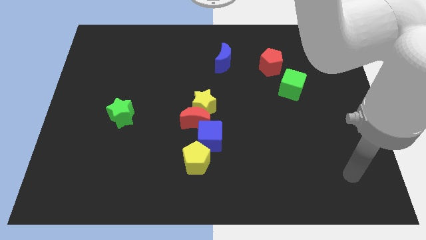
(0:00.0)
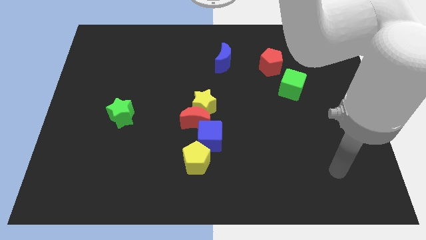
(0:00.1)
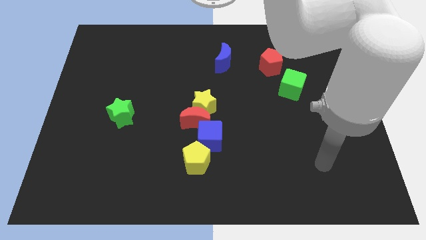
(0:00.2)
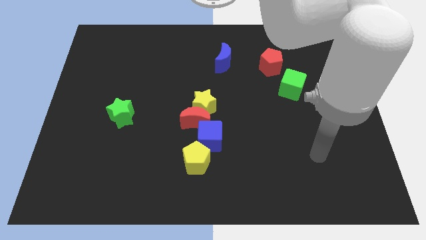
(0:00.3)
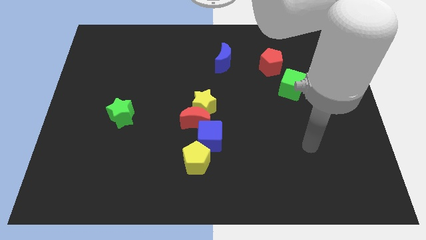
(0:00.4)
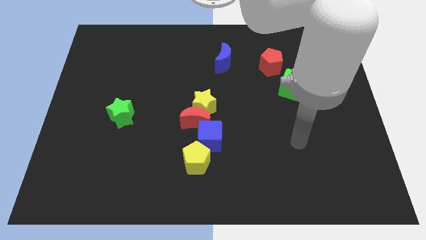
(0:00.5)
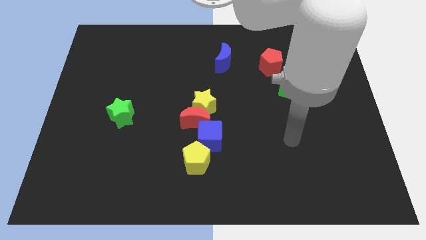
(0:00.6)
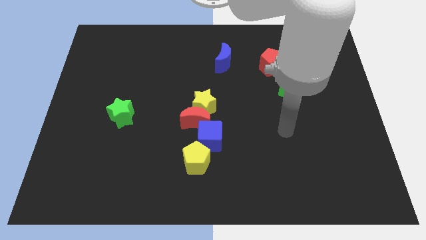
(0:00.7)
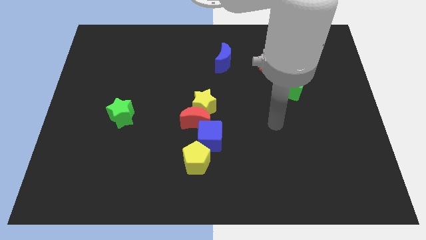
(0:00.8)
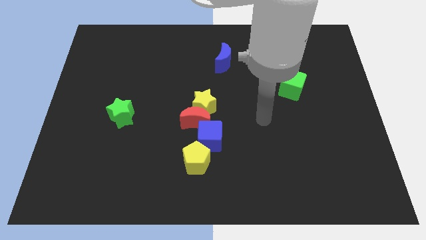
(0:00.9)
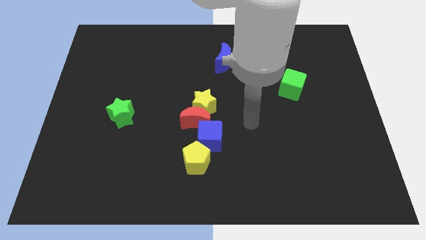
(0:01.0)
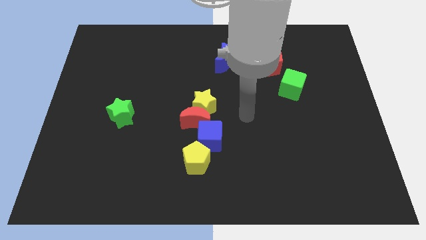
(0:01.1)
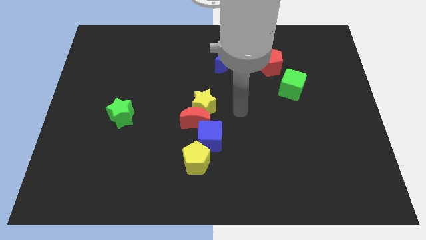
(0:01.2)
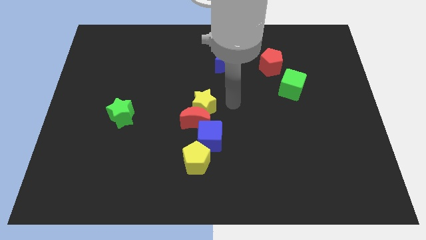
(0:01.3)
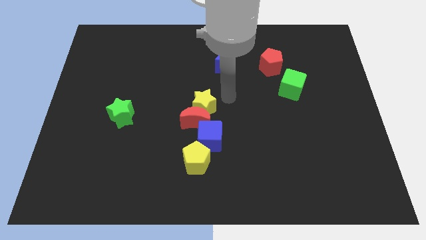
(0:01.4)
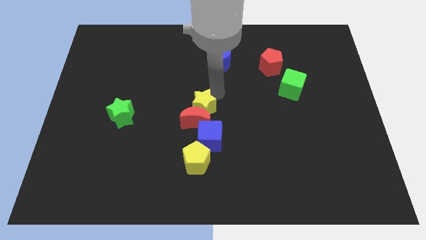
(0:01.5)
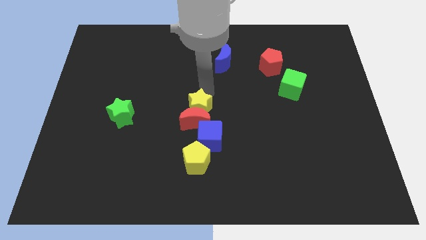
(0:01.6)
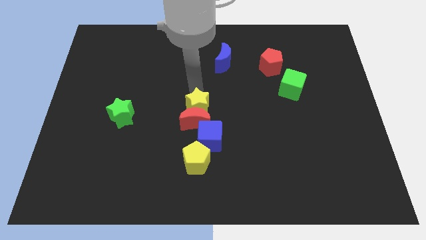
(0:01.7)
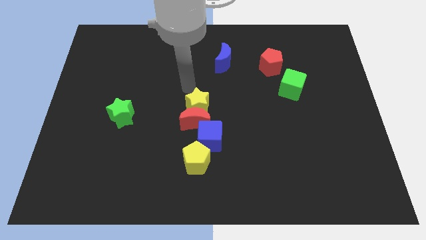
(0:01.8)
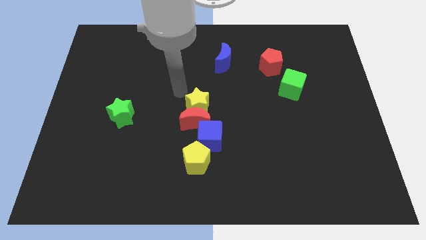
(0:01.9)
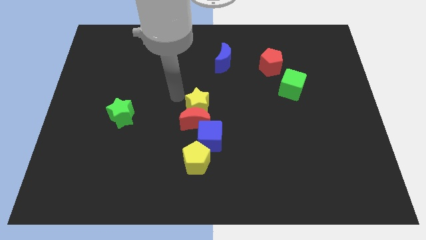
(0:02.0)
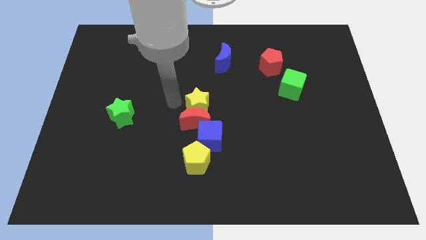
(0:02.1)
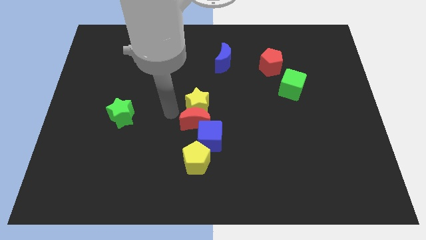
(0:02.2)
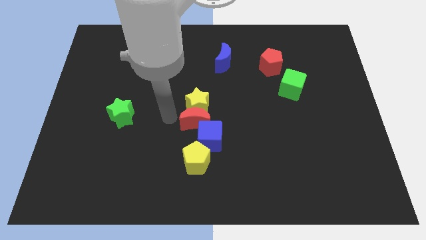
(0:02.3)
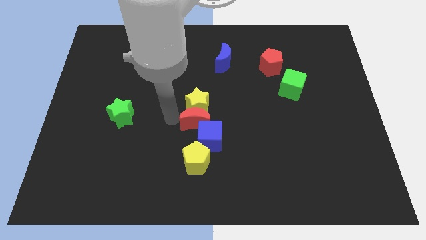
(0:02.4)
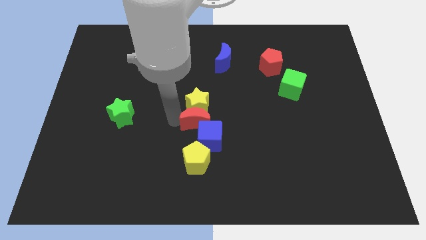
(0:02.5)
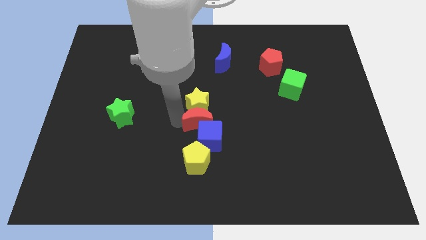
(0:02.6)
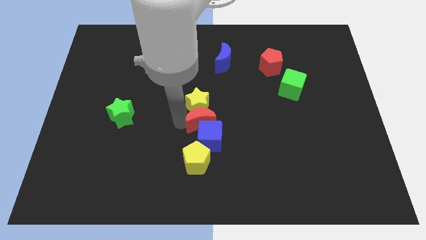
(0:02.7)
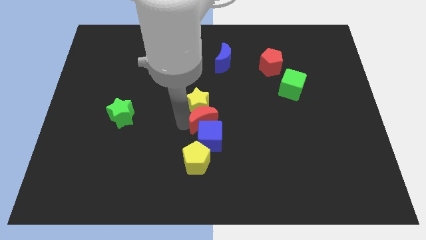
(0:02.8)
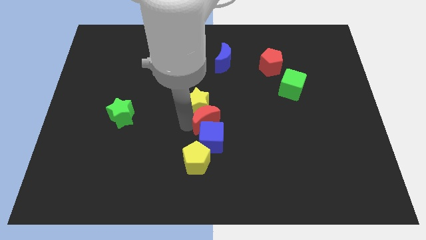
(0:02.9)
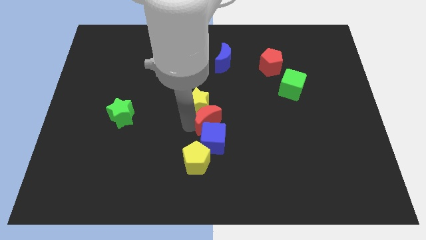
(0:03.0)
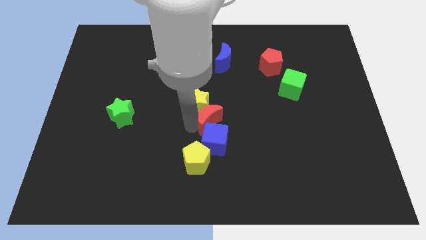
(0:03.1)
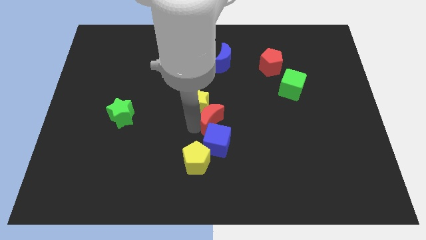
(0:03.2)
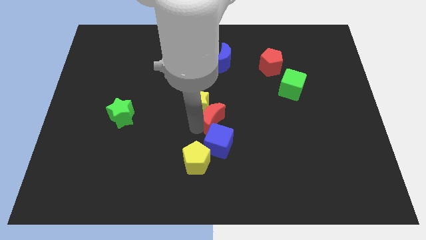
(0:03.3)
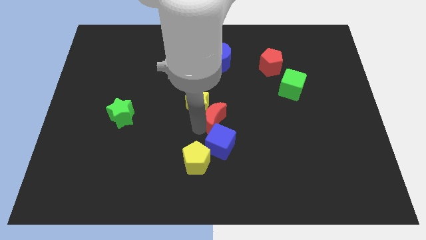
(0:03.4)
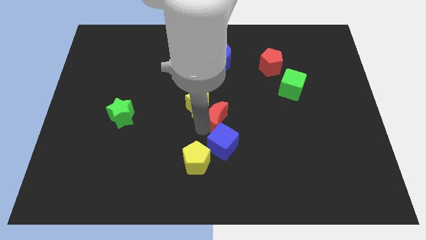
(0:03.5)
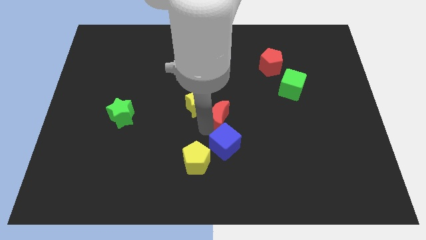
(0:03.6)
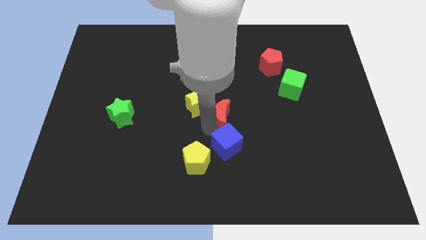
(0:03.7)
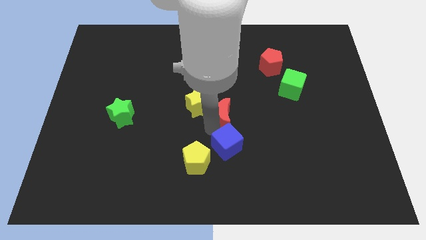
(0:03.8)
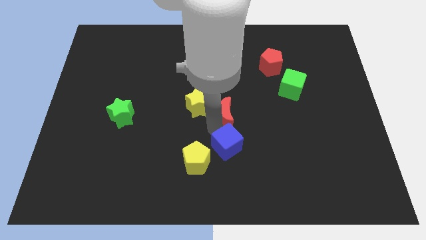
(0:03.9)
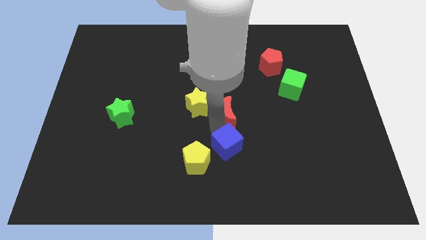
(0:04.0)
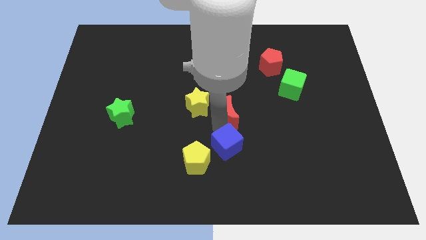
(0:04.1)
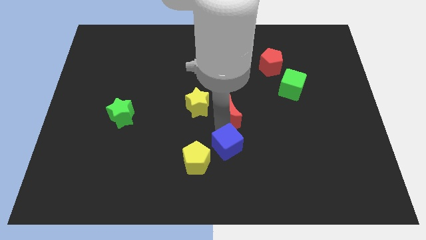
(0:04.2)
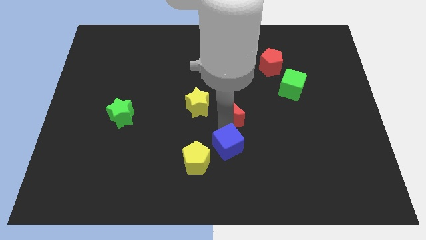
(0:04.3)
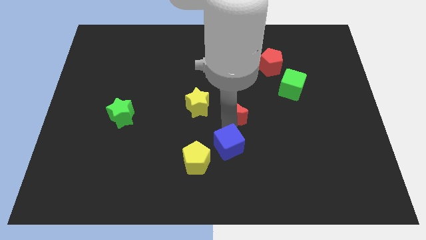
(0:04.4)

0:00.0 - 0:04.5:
push the red moon slightly up and then to the right

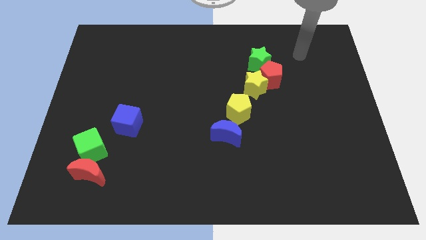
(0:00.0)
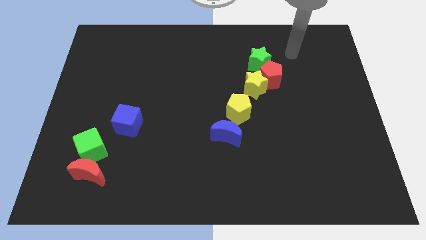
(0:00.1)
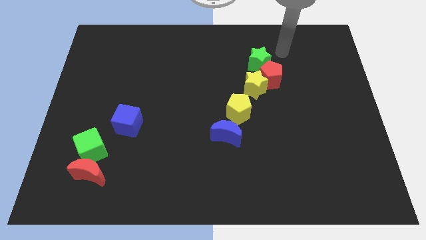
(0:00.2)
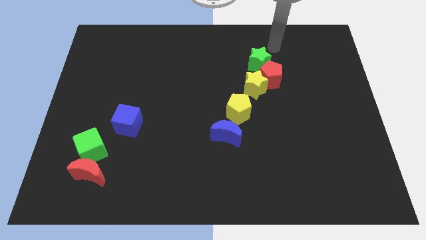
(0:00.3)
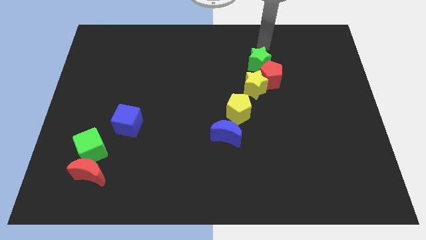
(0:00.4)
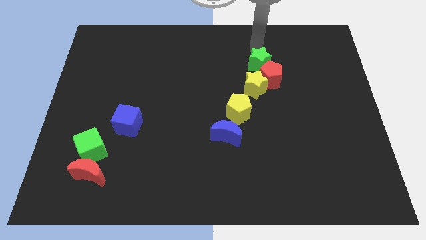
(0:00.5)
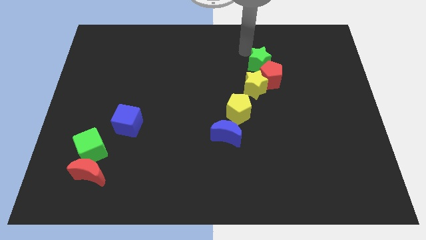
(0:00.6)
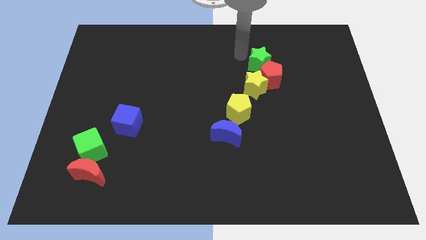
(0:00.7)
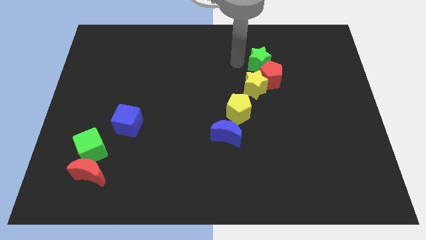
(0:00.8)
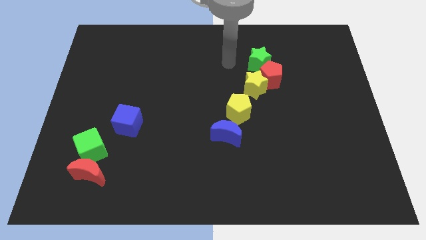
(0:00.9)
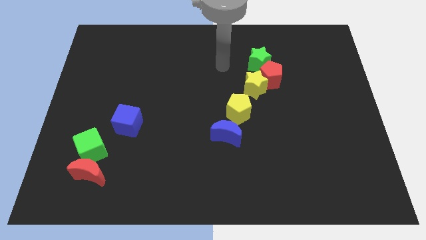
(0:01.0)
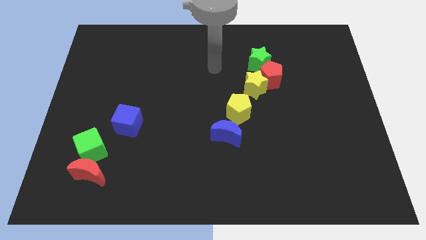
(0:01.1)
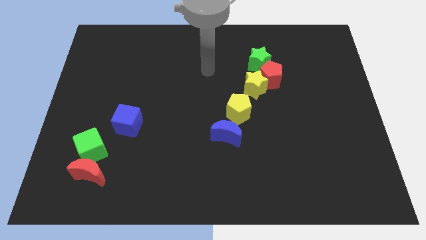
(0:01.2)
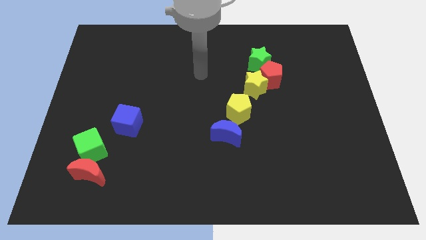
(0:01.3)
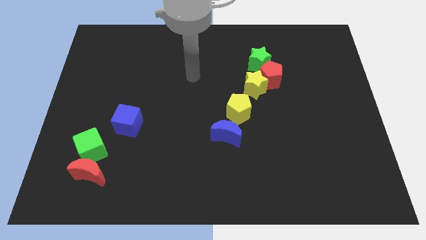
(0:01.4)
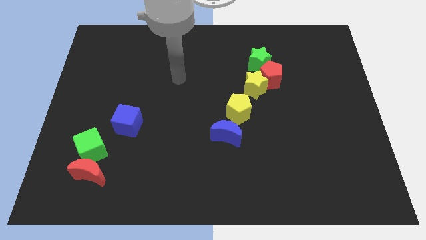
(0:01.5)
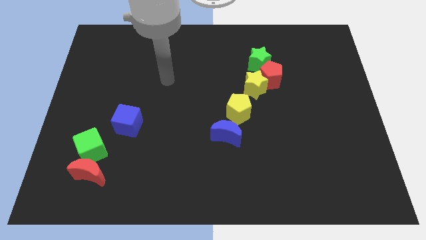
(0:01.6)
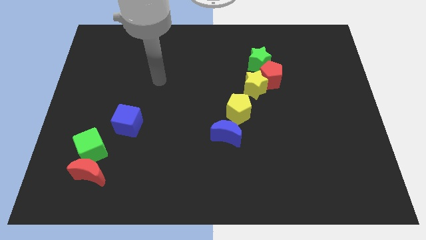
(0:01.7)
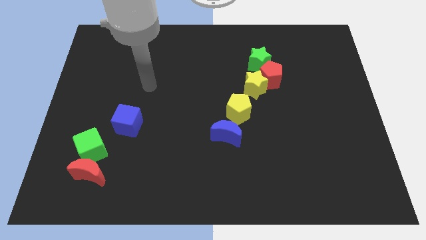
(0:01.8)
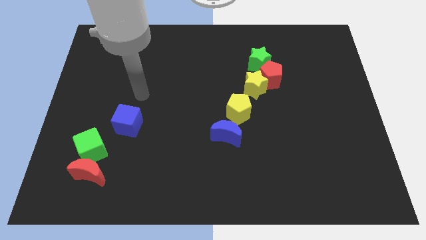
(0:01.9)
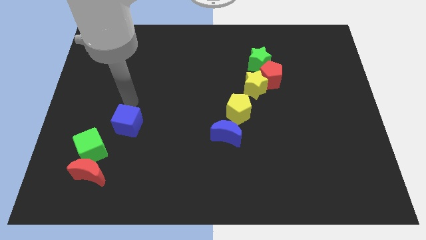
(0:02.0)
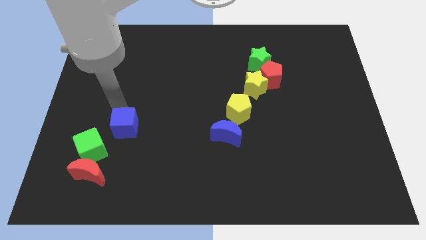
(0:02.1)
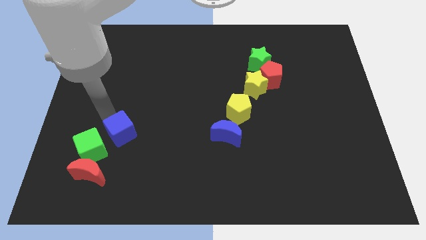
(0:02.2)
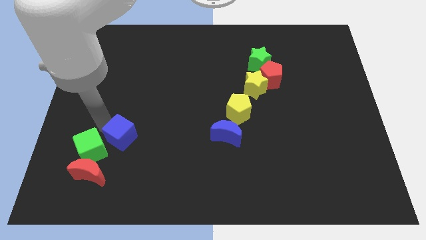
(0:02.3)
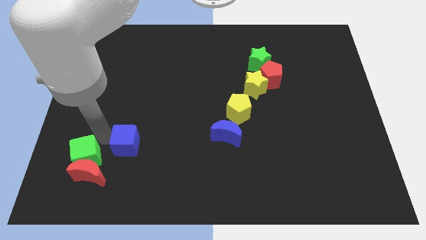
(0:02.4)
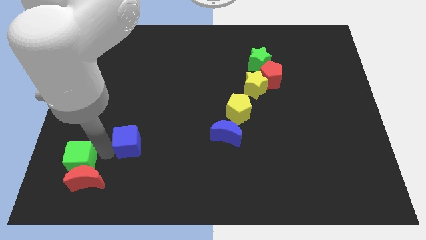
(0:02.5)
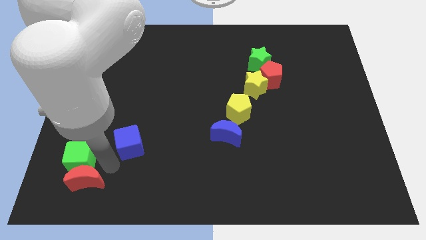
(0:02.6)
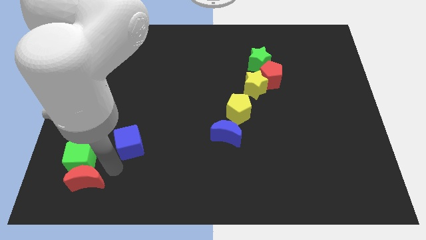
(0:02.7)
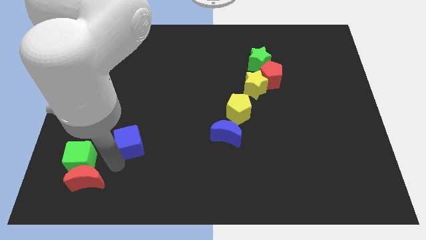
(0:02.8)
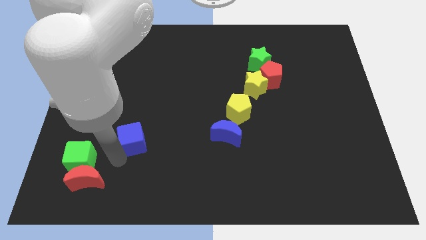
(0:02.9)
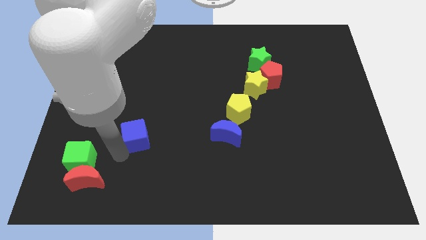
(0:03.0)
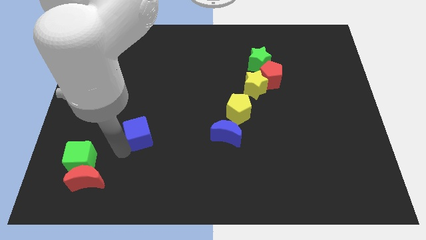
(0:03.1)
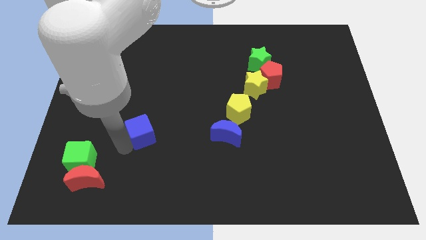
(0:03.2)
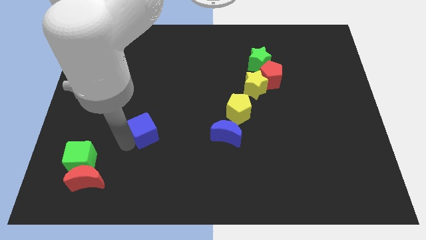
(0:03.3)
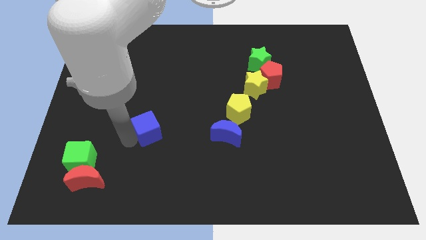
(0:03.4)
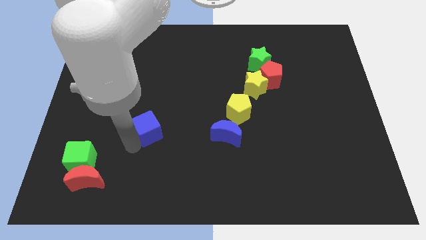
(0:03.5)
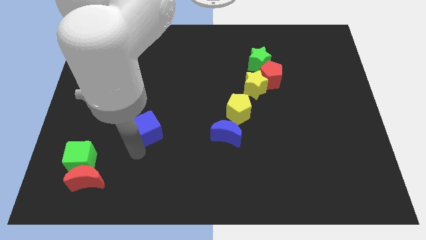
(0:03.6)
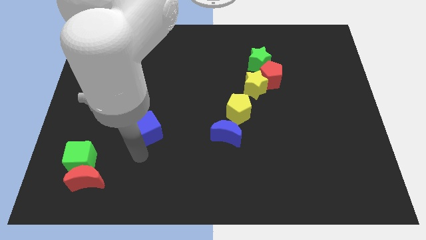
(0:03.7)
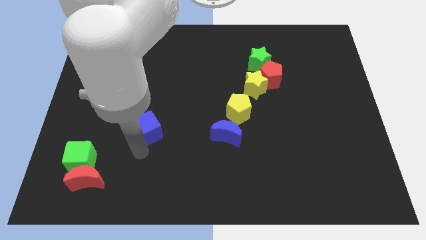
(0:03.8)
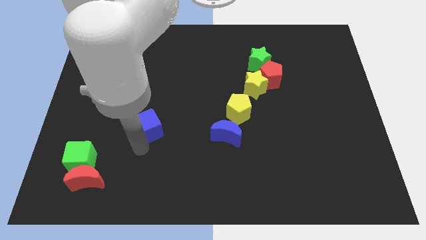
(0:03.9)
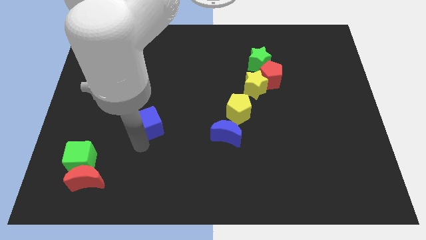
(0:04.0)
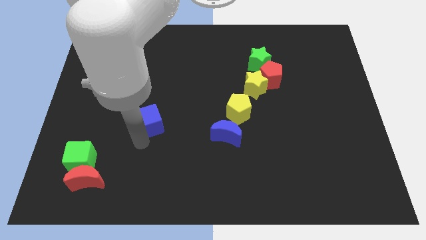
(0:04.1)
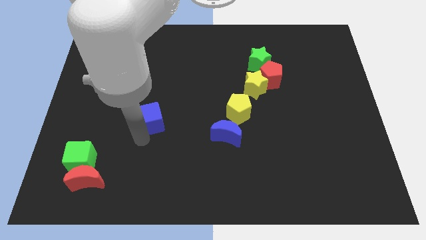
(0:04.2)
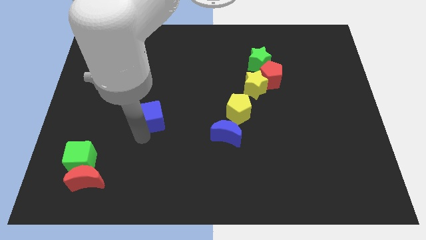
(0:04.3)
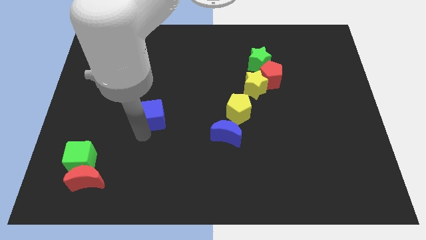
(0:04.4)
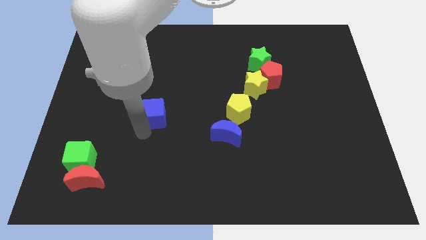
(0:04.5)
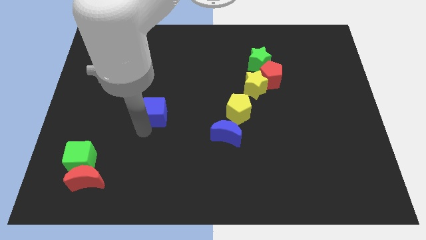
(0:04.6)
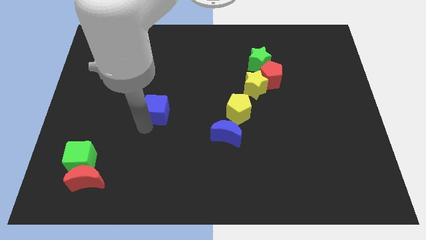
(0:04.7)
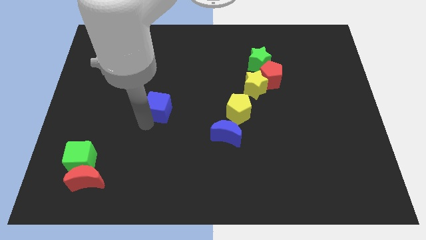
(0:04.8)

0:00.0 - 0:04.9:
push the blue cube somewhat upwards and to the right diagonally
